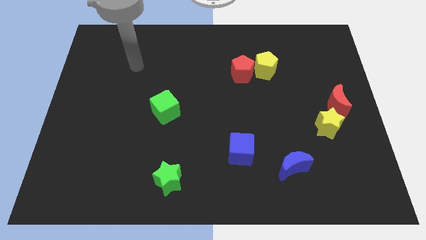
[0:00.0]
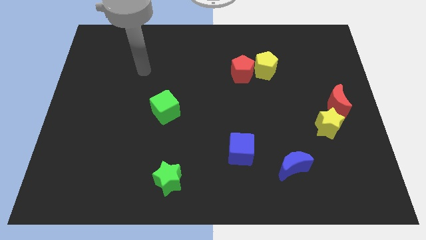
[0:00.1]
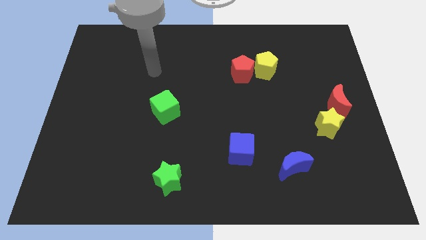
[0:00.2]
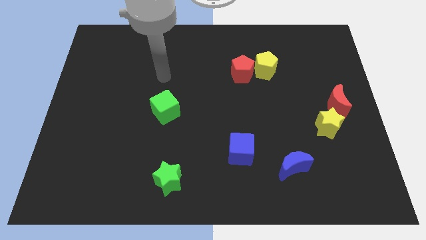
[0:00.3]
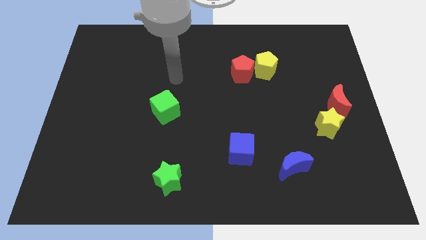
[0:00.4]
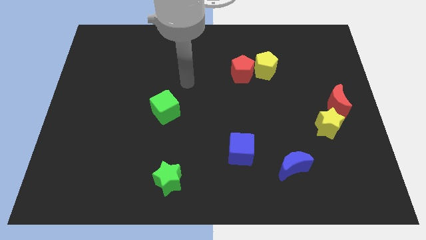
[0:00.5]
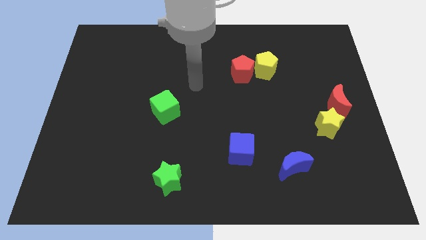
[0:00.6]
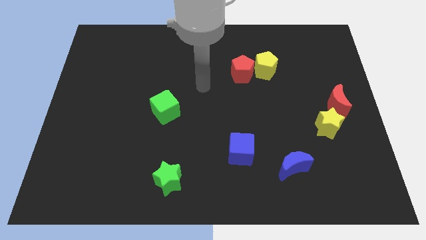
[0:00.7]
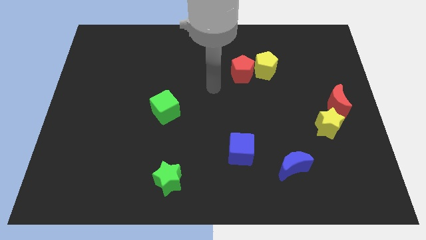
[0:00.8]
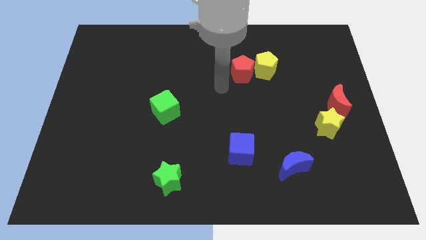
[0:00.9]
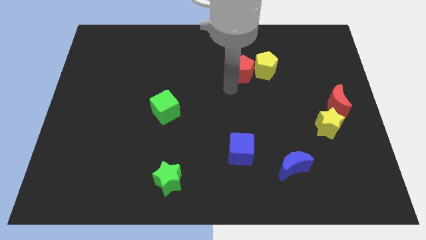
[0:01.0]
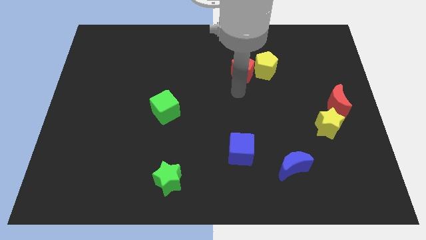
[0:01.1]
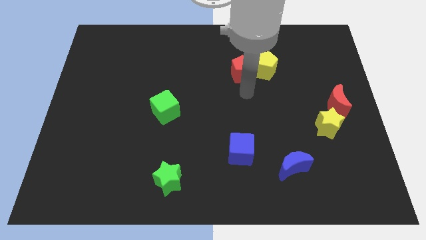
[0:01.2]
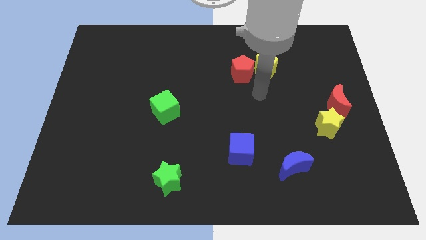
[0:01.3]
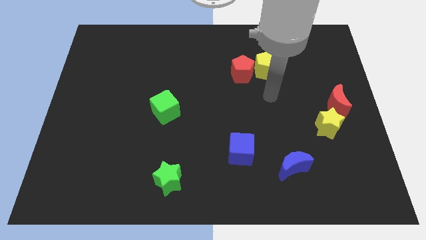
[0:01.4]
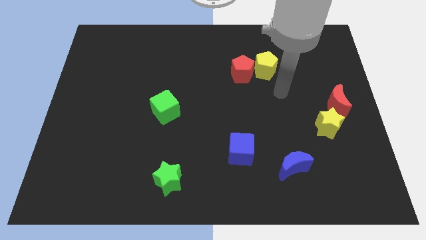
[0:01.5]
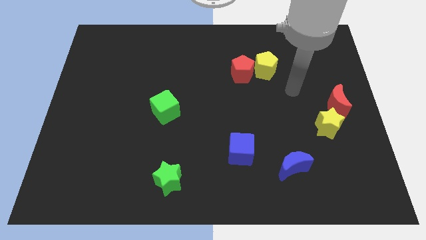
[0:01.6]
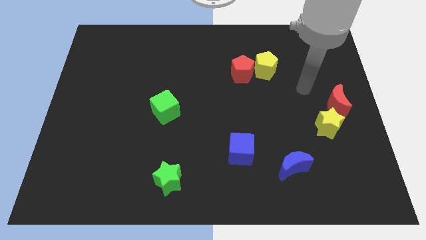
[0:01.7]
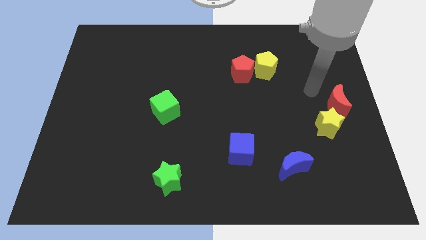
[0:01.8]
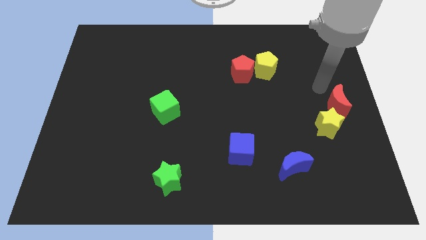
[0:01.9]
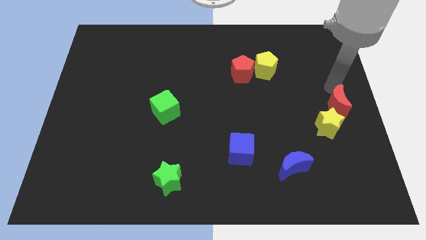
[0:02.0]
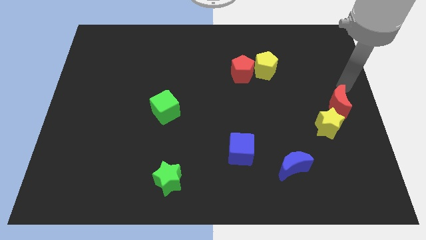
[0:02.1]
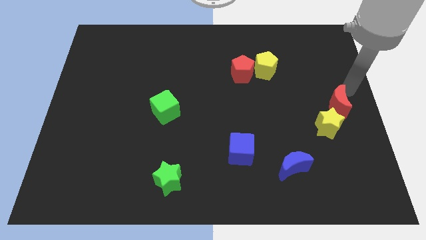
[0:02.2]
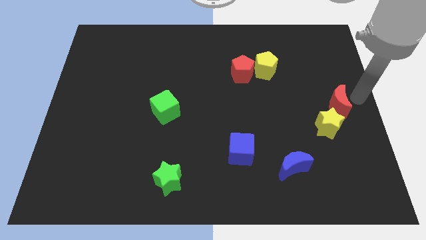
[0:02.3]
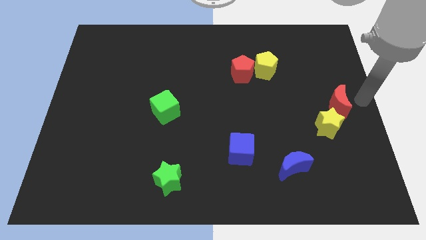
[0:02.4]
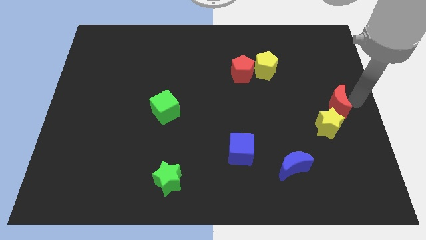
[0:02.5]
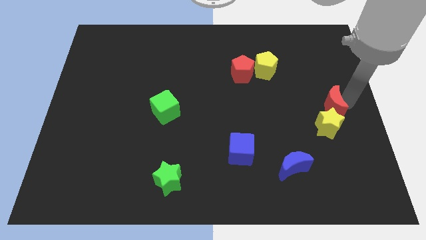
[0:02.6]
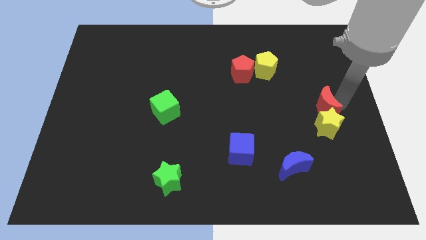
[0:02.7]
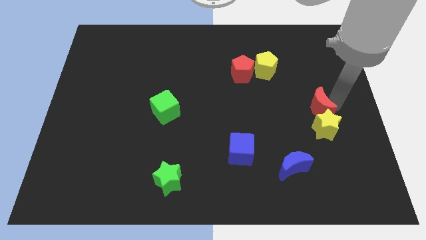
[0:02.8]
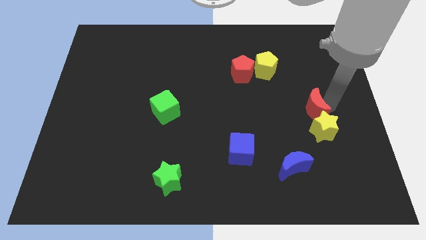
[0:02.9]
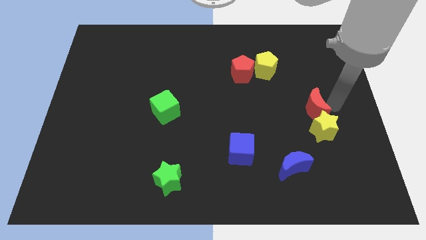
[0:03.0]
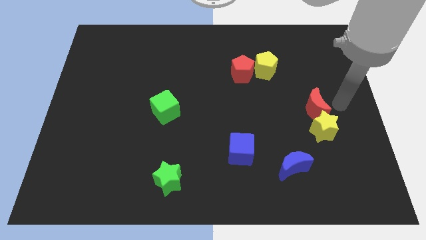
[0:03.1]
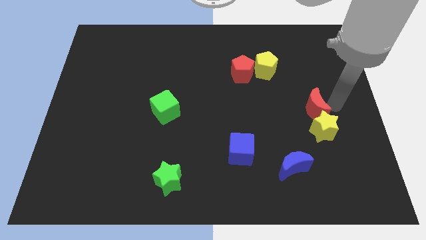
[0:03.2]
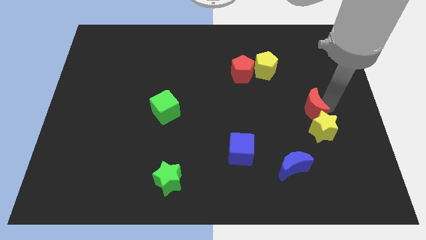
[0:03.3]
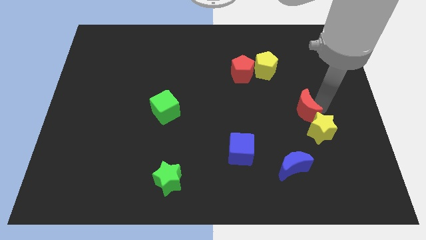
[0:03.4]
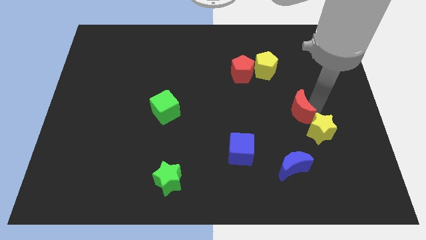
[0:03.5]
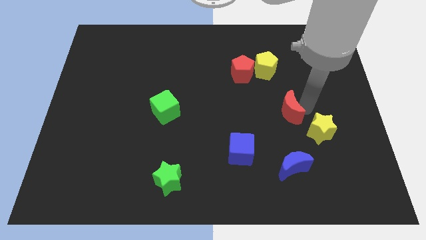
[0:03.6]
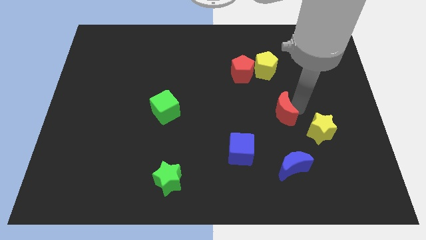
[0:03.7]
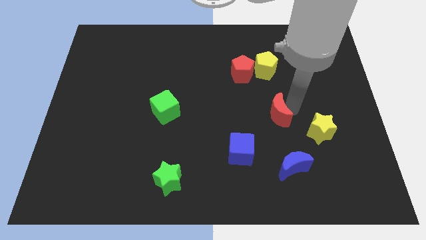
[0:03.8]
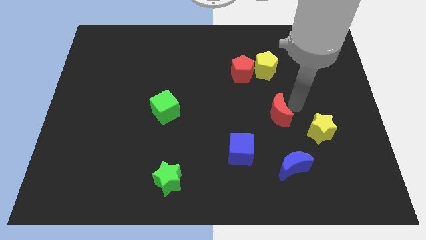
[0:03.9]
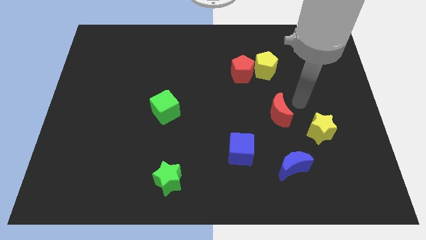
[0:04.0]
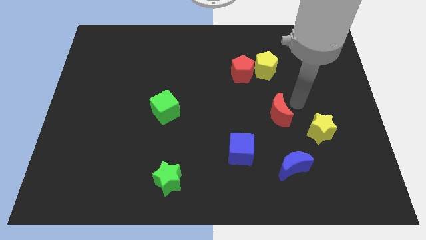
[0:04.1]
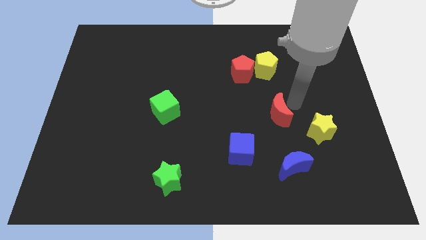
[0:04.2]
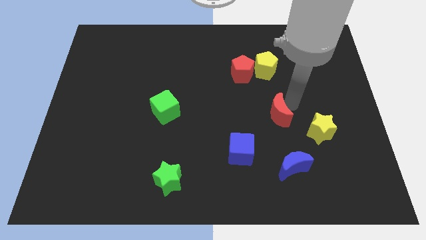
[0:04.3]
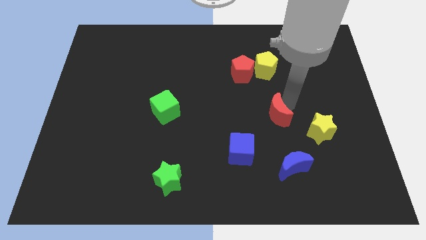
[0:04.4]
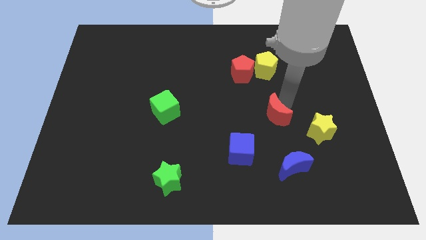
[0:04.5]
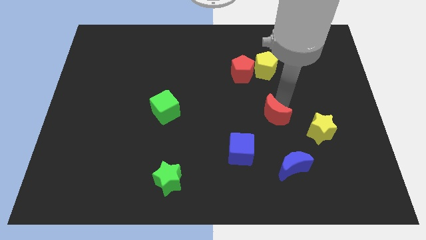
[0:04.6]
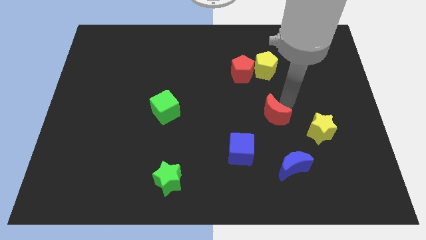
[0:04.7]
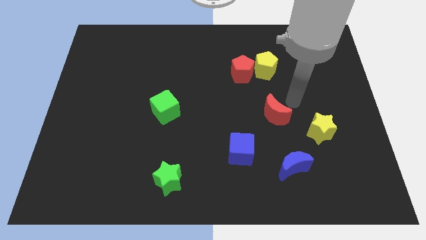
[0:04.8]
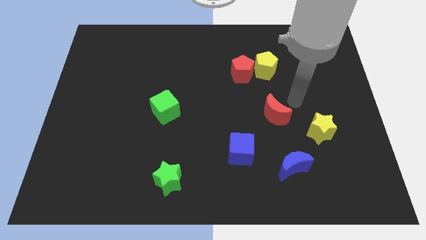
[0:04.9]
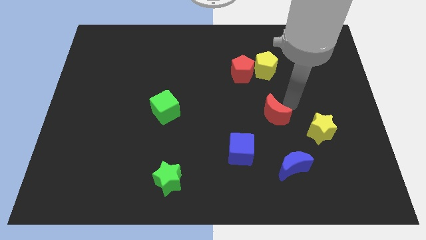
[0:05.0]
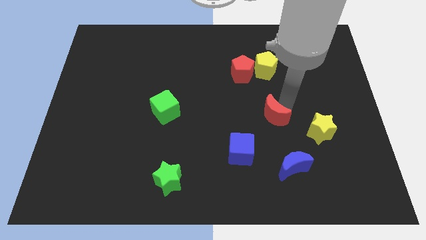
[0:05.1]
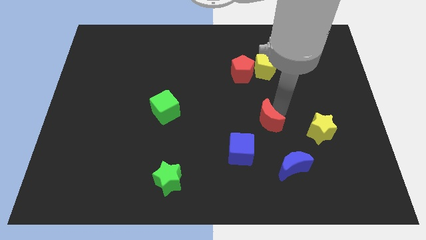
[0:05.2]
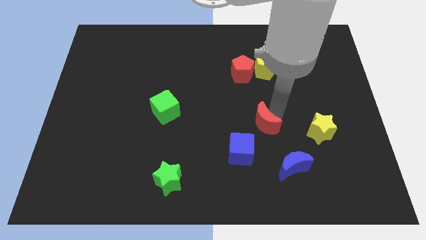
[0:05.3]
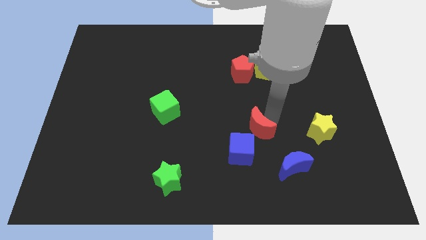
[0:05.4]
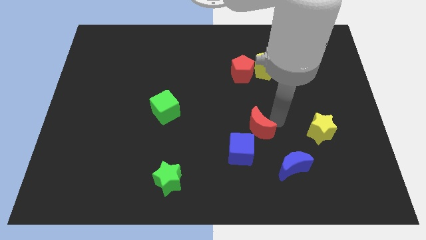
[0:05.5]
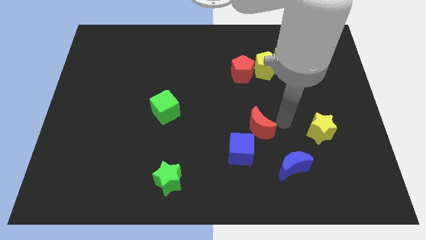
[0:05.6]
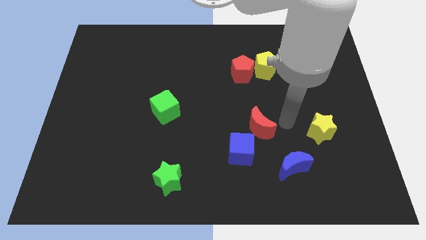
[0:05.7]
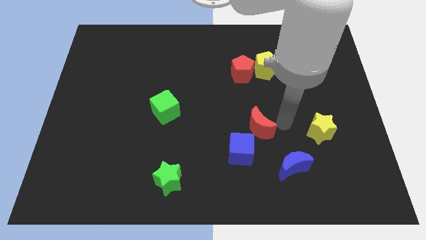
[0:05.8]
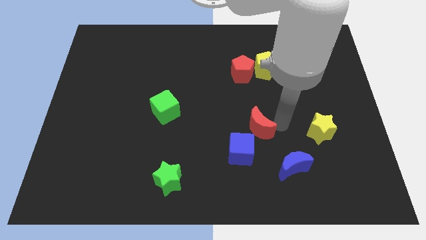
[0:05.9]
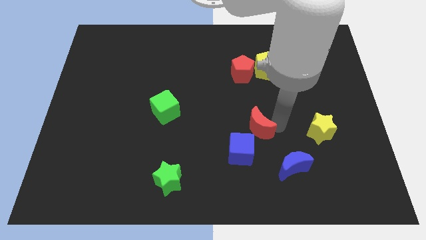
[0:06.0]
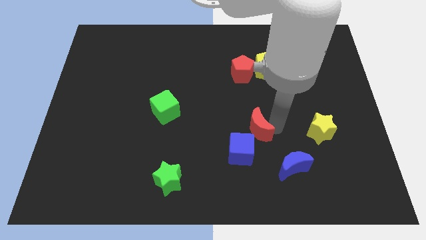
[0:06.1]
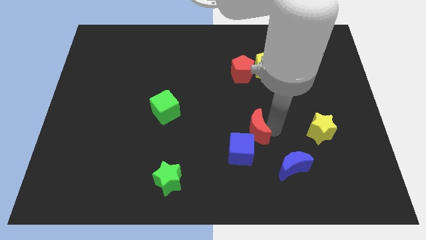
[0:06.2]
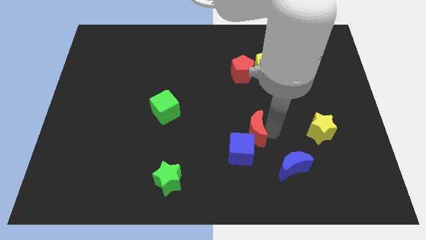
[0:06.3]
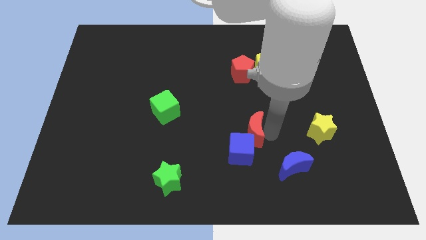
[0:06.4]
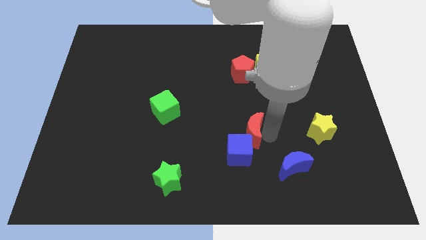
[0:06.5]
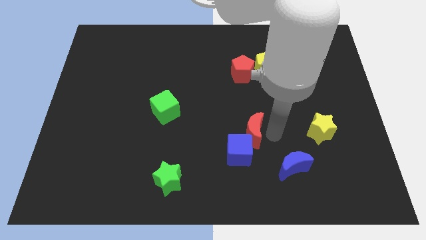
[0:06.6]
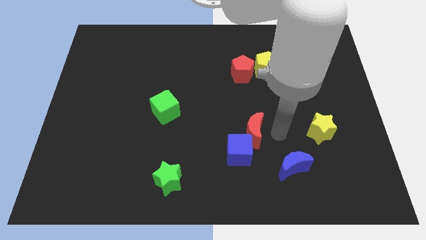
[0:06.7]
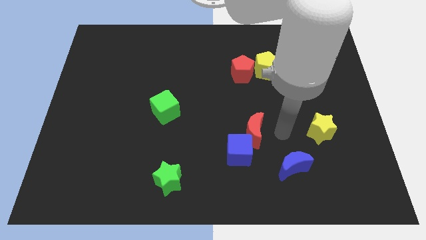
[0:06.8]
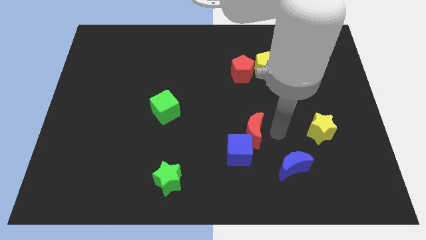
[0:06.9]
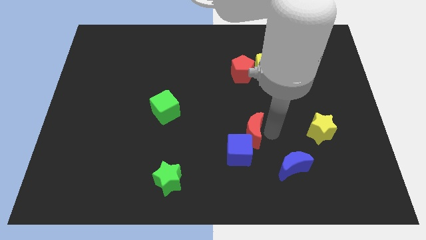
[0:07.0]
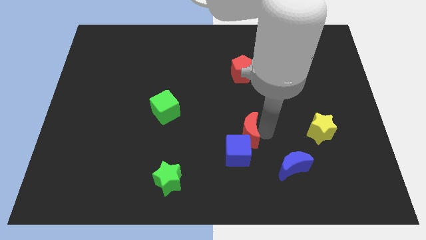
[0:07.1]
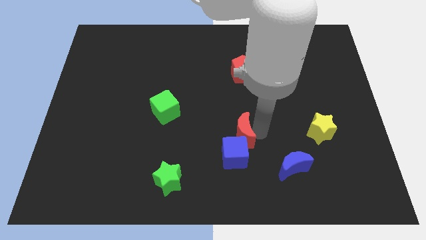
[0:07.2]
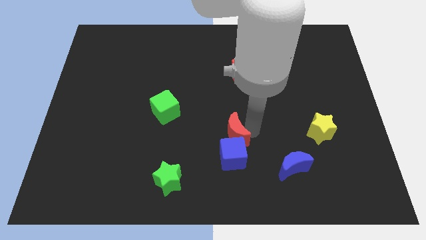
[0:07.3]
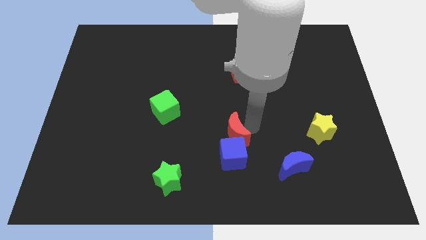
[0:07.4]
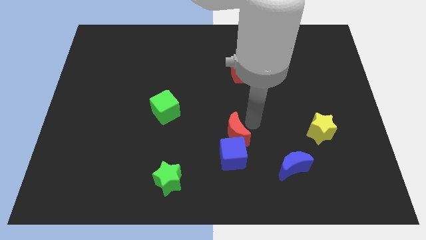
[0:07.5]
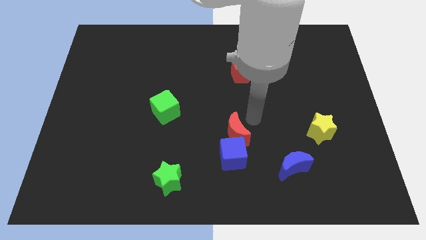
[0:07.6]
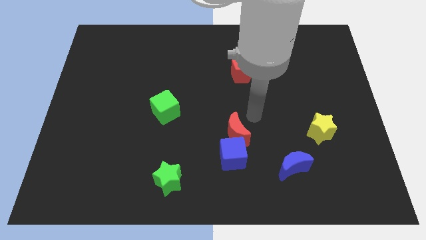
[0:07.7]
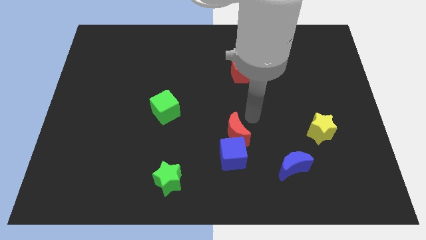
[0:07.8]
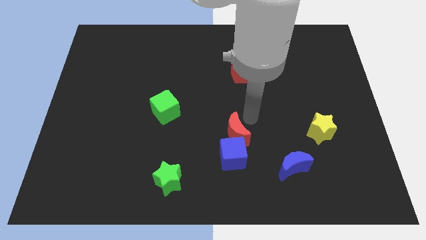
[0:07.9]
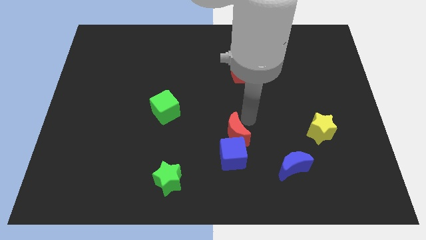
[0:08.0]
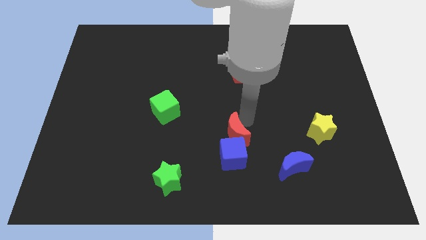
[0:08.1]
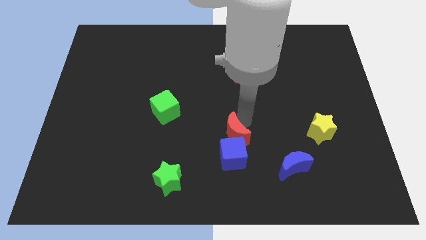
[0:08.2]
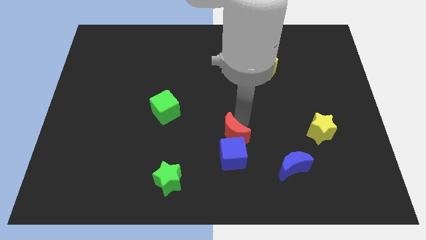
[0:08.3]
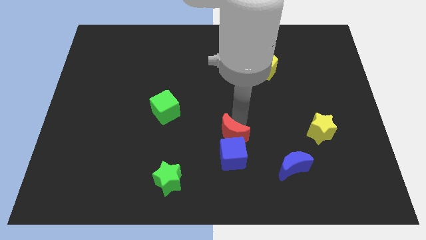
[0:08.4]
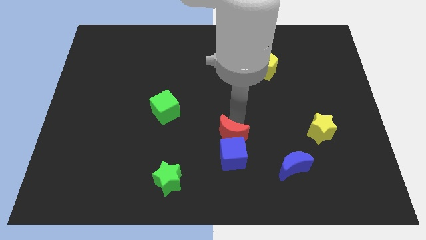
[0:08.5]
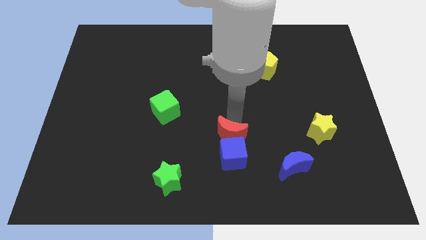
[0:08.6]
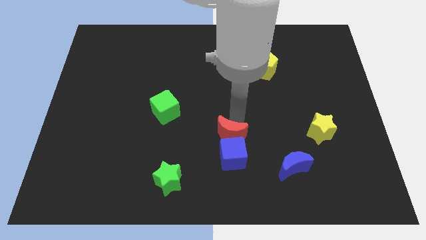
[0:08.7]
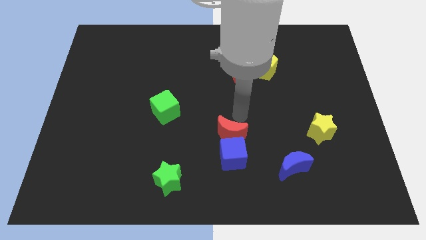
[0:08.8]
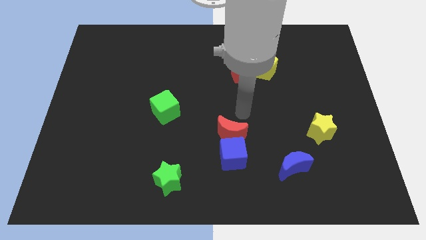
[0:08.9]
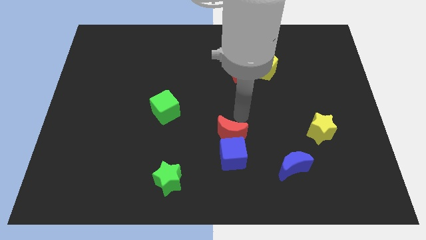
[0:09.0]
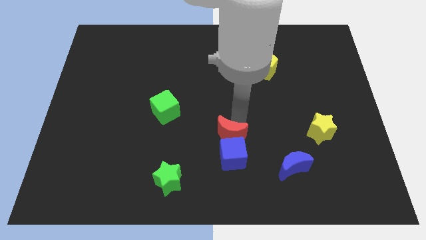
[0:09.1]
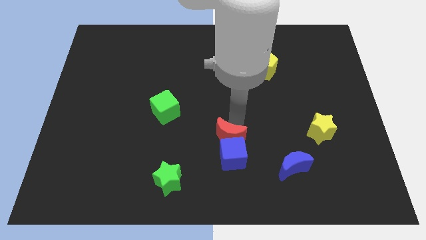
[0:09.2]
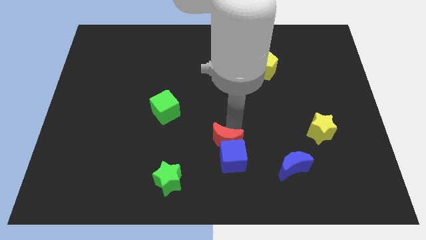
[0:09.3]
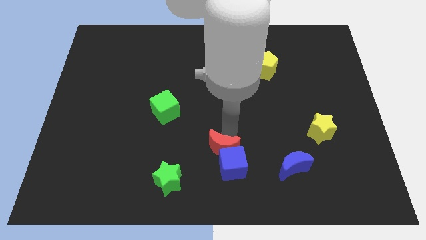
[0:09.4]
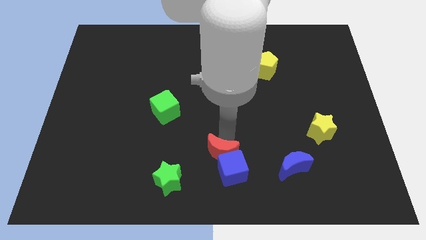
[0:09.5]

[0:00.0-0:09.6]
move the red moon to the left of the blue moon
